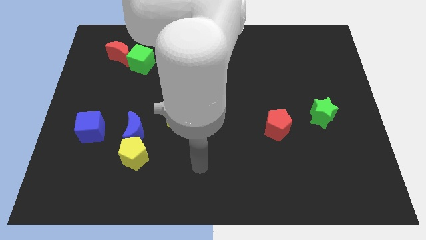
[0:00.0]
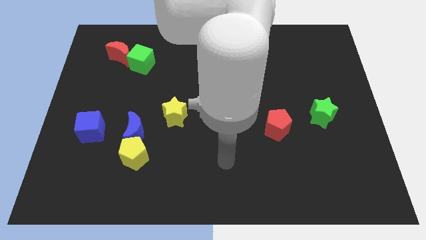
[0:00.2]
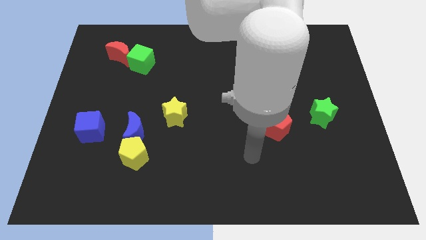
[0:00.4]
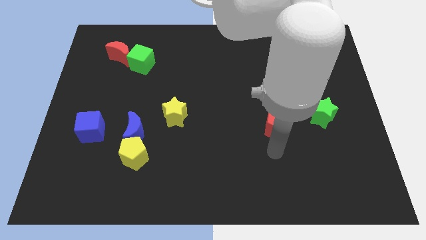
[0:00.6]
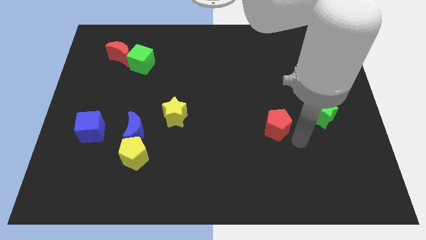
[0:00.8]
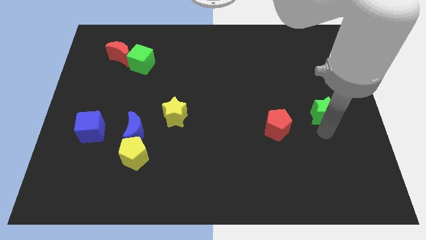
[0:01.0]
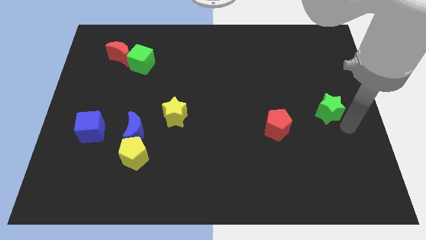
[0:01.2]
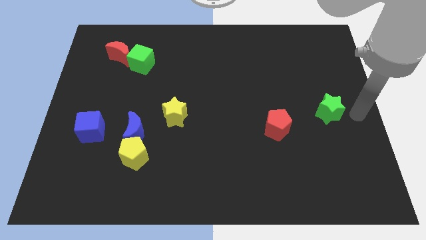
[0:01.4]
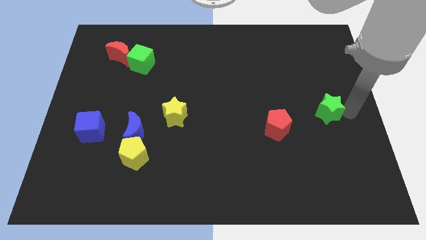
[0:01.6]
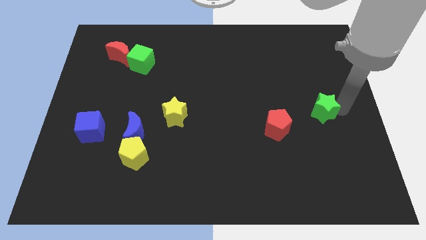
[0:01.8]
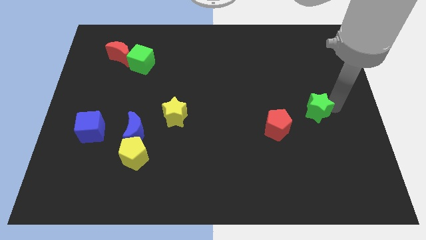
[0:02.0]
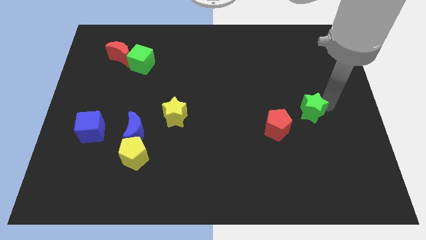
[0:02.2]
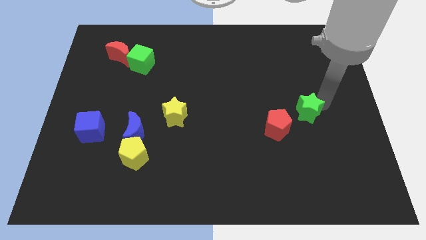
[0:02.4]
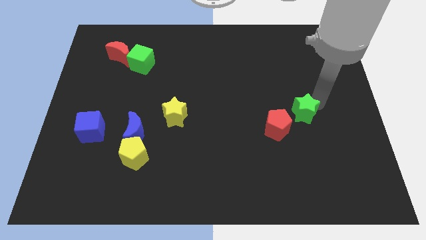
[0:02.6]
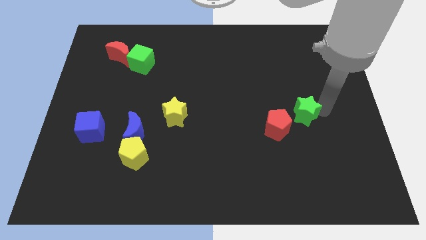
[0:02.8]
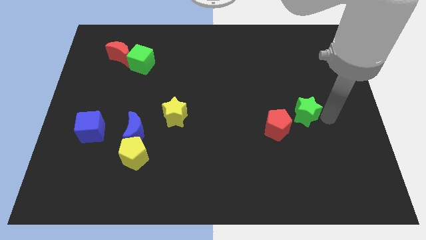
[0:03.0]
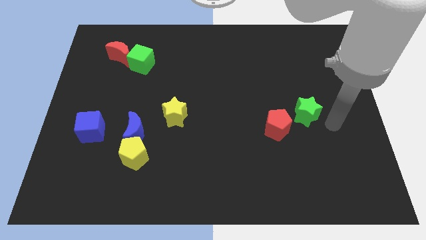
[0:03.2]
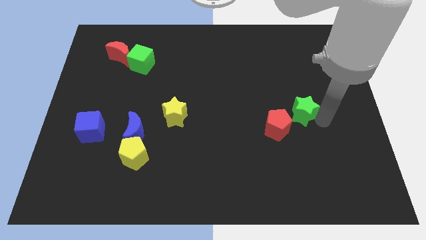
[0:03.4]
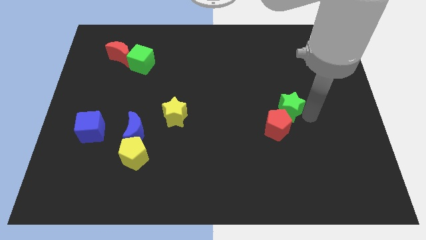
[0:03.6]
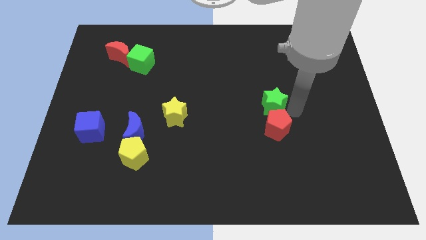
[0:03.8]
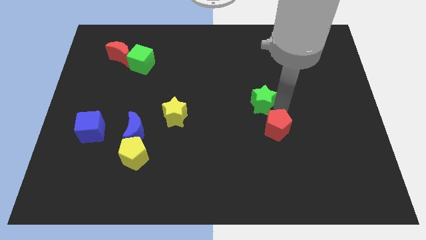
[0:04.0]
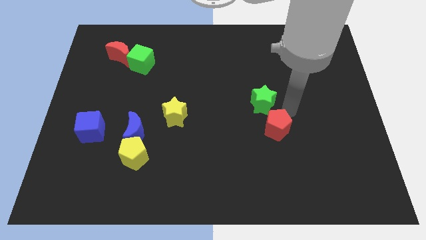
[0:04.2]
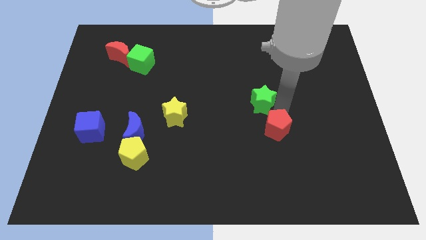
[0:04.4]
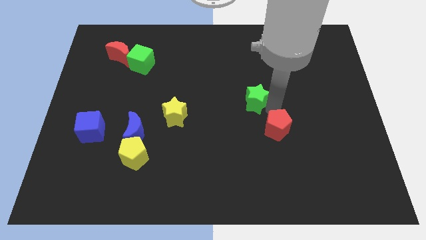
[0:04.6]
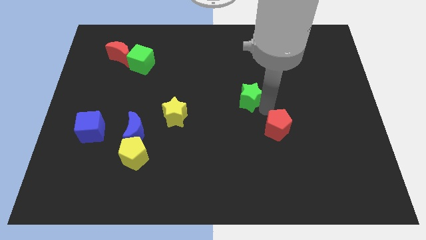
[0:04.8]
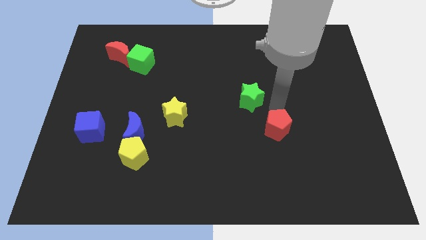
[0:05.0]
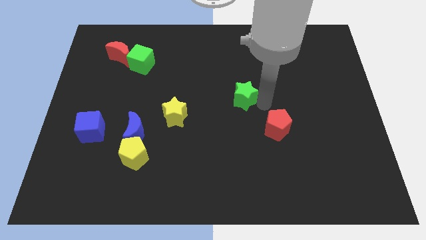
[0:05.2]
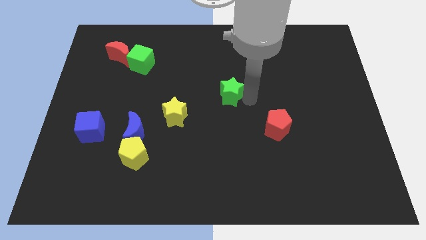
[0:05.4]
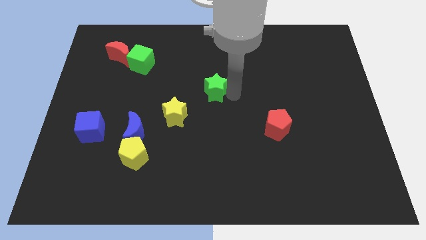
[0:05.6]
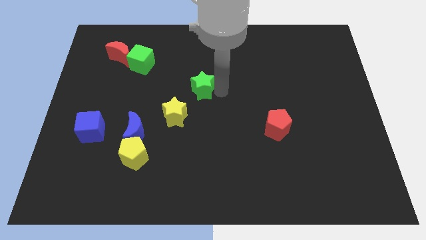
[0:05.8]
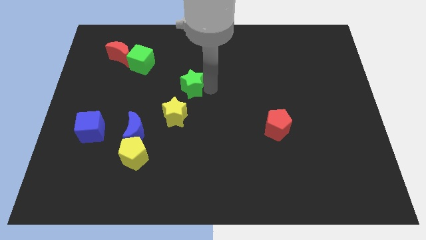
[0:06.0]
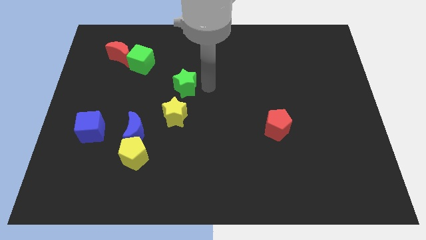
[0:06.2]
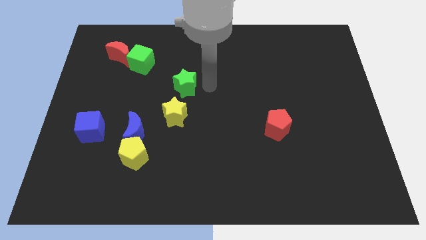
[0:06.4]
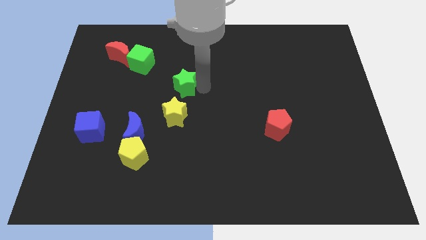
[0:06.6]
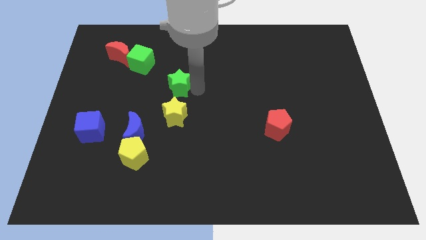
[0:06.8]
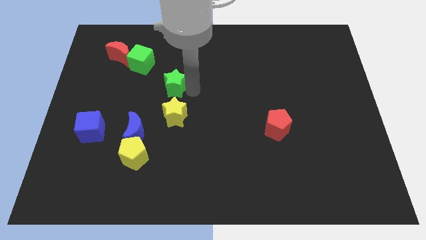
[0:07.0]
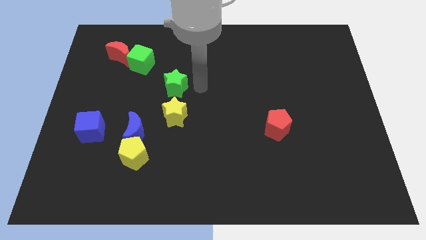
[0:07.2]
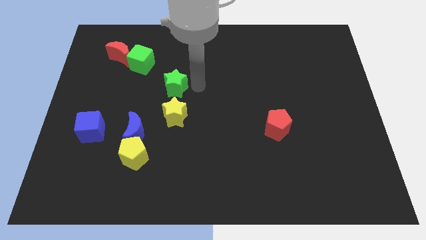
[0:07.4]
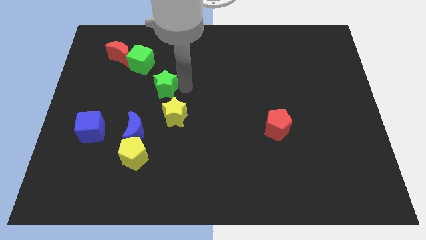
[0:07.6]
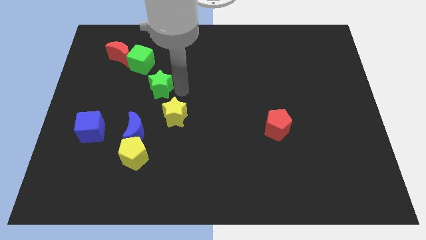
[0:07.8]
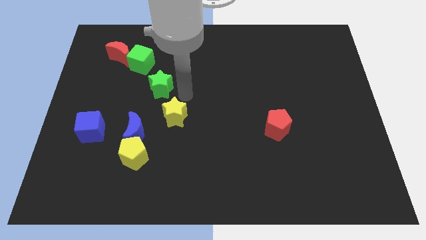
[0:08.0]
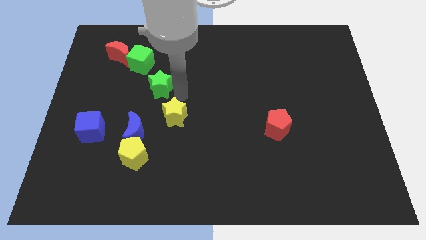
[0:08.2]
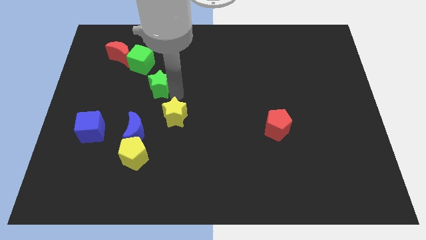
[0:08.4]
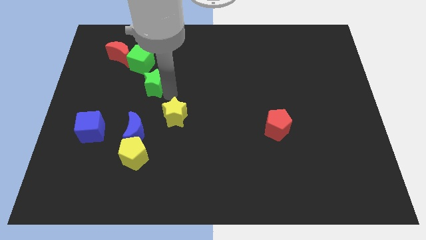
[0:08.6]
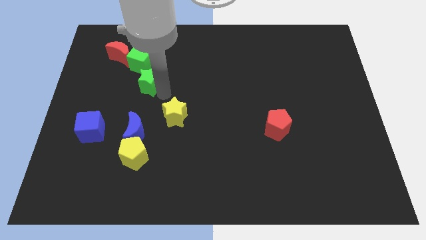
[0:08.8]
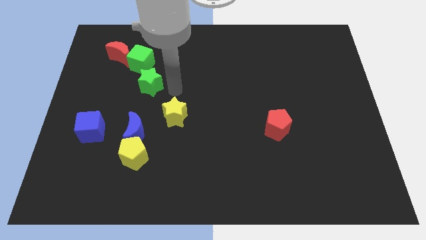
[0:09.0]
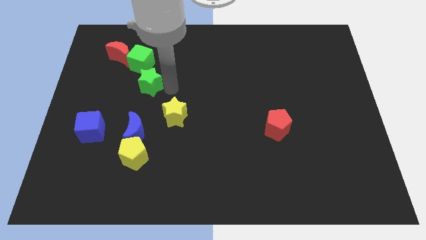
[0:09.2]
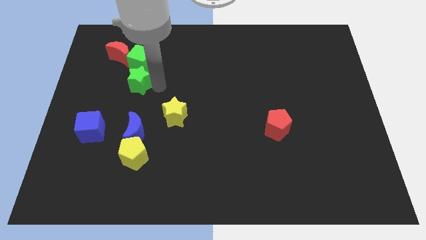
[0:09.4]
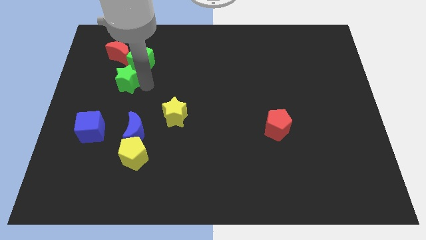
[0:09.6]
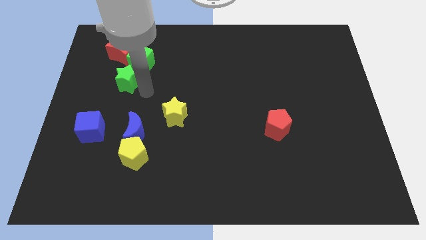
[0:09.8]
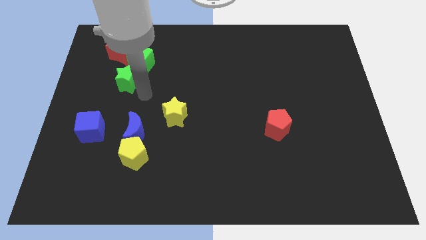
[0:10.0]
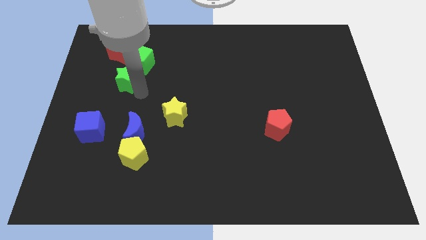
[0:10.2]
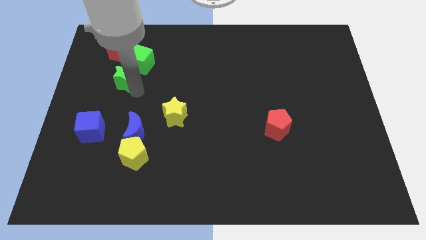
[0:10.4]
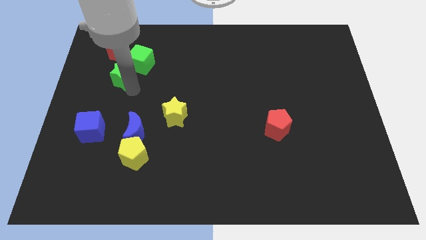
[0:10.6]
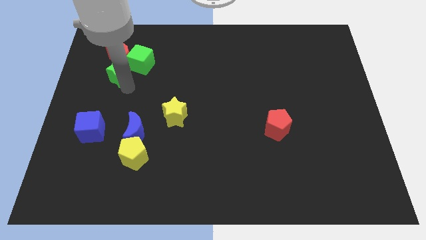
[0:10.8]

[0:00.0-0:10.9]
push the green star to the left of the green cube

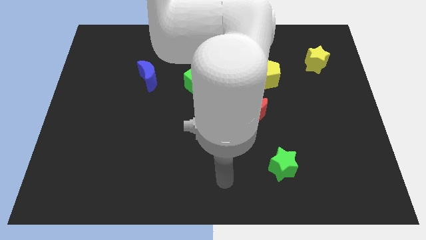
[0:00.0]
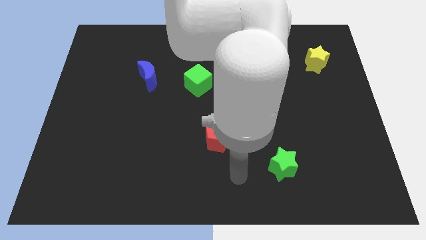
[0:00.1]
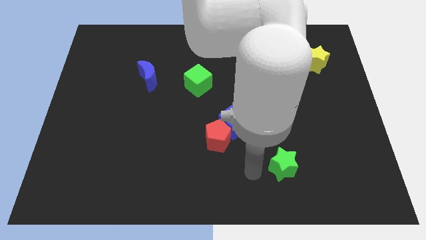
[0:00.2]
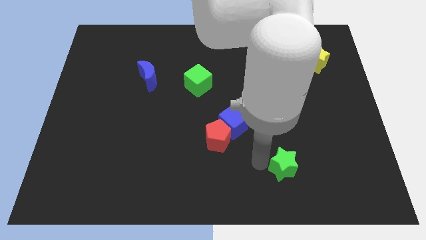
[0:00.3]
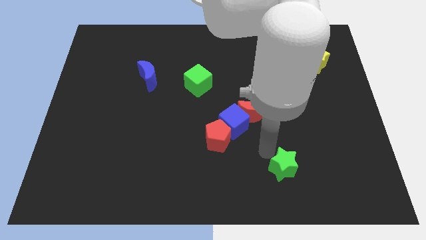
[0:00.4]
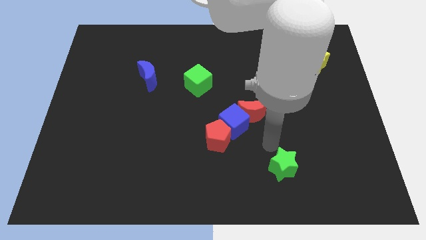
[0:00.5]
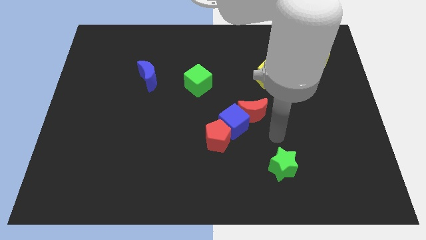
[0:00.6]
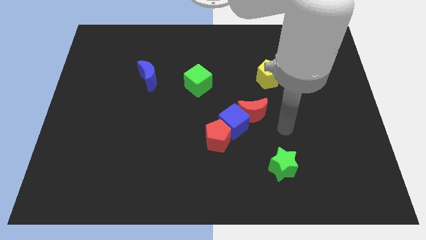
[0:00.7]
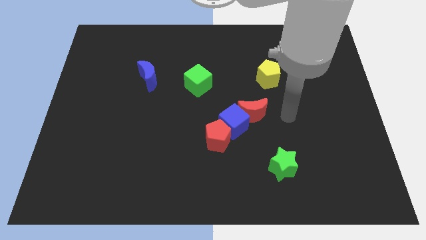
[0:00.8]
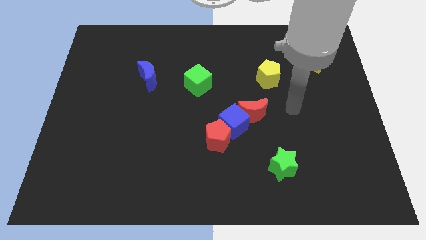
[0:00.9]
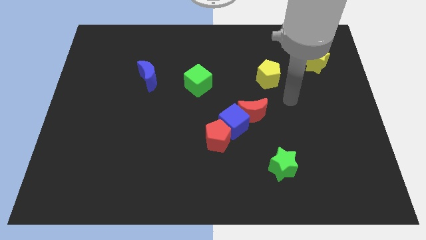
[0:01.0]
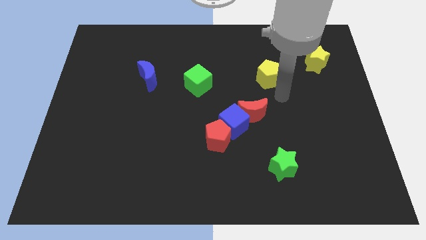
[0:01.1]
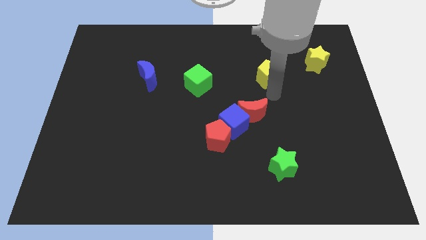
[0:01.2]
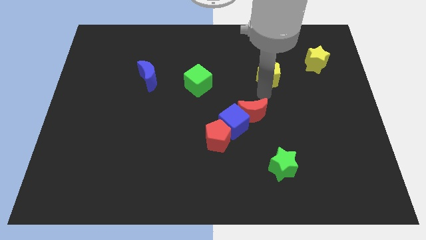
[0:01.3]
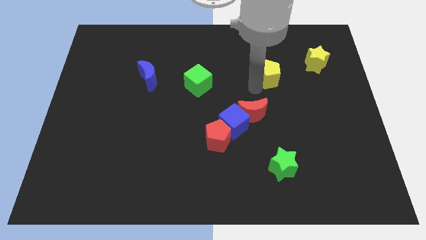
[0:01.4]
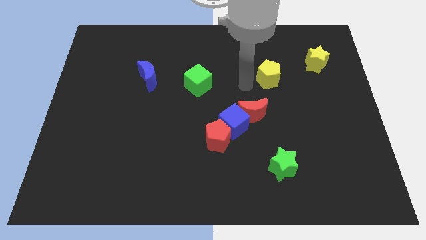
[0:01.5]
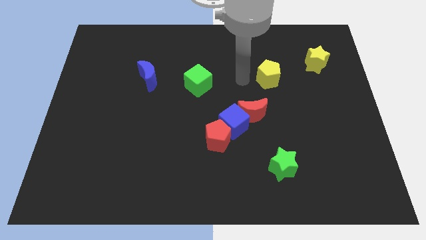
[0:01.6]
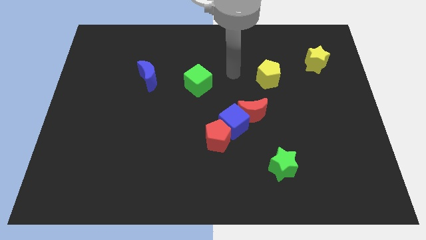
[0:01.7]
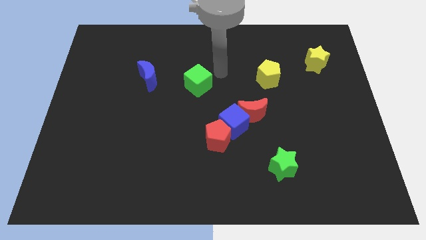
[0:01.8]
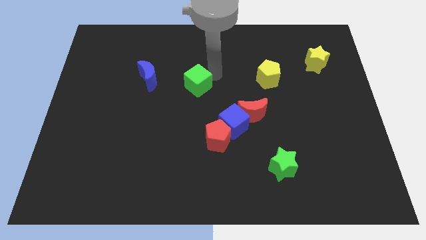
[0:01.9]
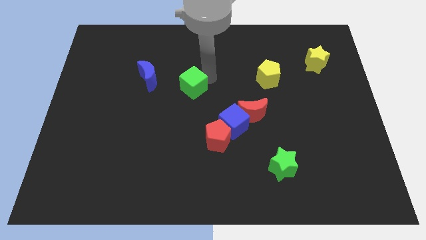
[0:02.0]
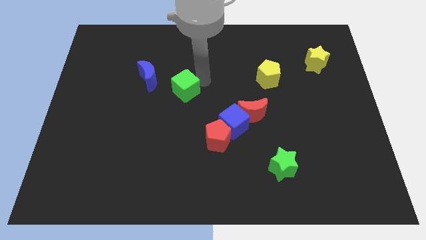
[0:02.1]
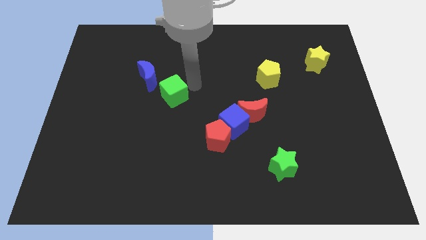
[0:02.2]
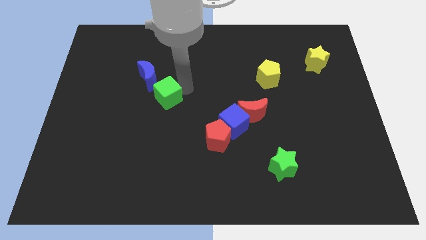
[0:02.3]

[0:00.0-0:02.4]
move the green cube to the bottom side of the blue moon
